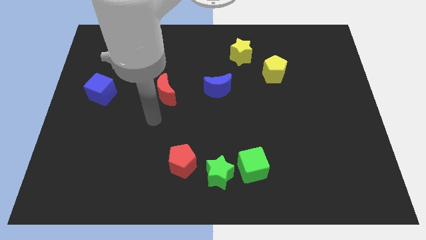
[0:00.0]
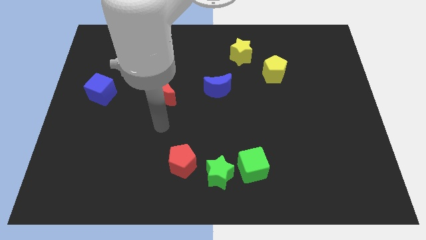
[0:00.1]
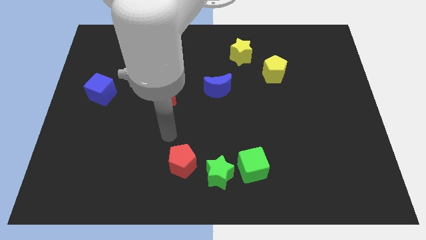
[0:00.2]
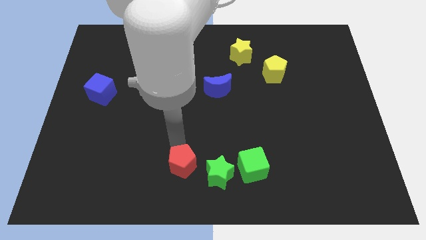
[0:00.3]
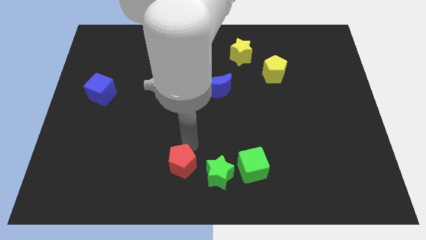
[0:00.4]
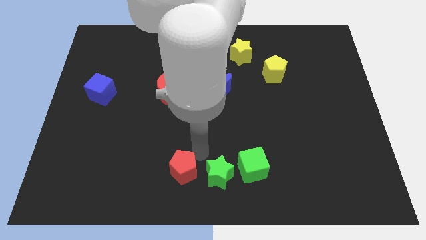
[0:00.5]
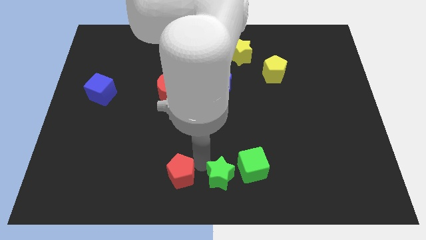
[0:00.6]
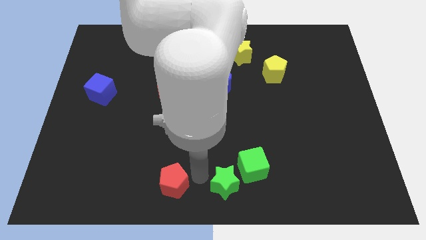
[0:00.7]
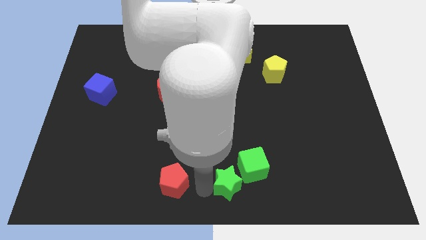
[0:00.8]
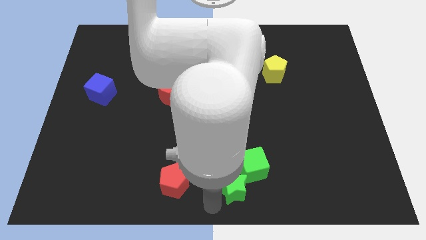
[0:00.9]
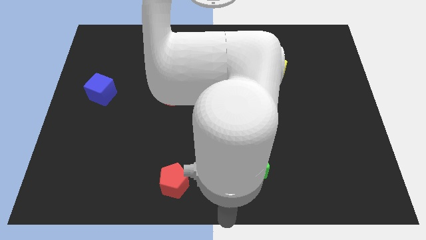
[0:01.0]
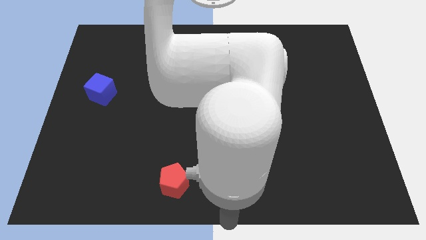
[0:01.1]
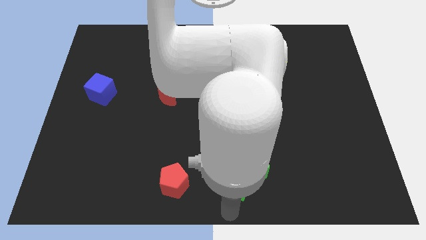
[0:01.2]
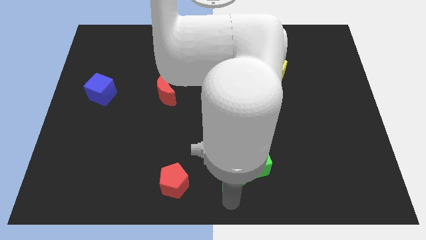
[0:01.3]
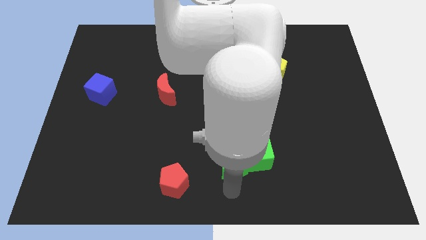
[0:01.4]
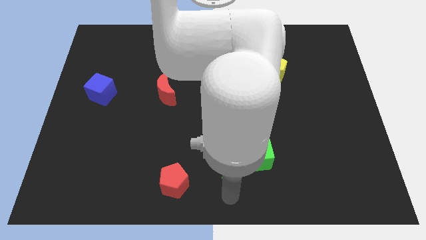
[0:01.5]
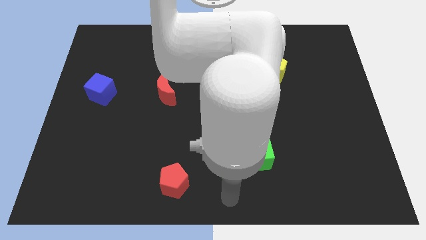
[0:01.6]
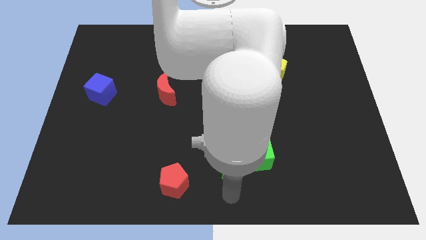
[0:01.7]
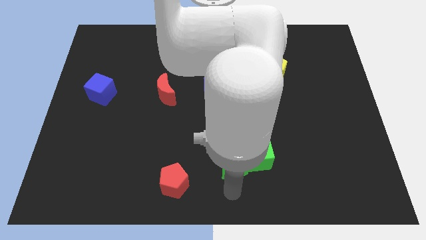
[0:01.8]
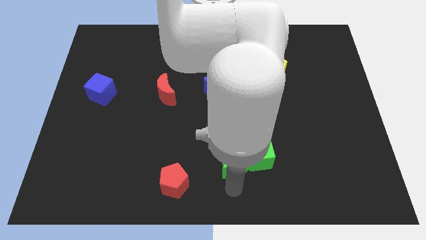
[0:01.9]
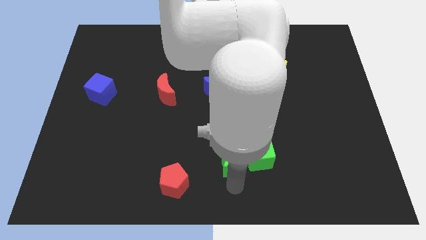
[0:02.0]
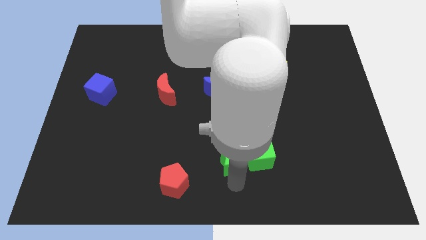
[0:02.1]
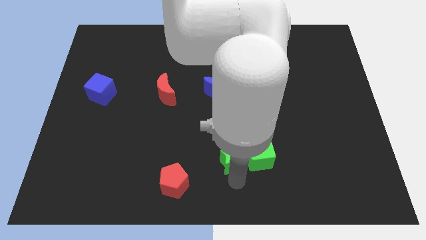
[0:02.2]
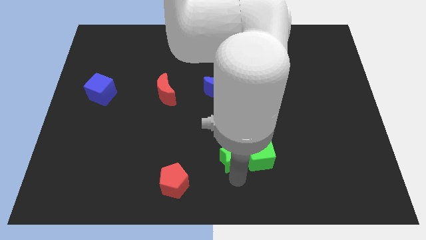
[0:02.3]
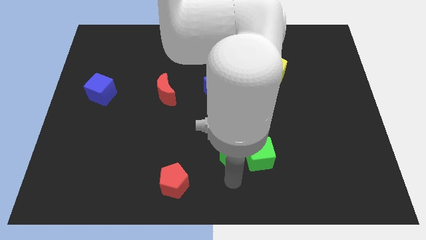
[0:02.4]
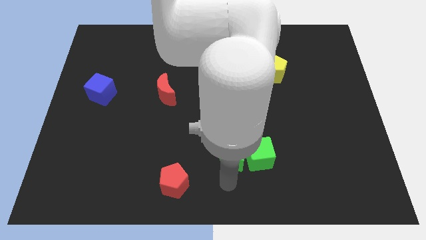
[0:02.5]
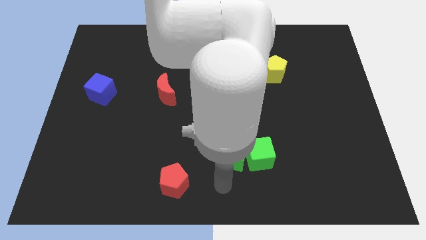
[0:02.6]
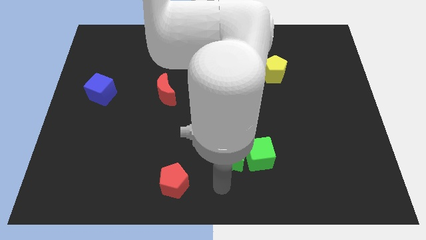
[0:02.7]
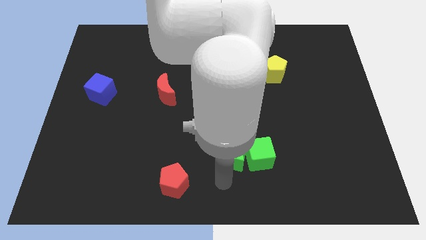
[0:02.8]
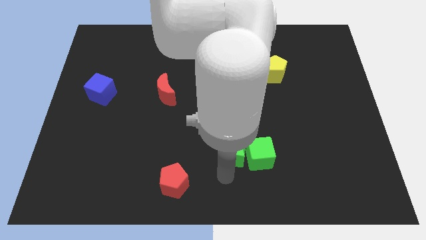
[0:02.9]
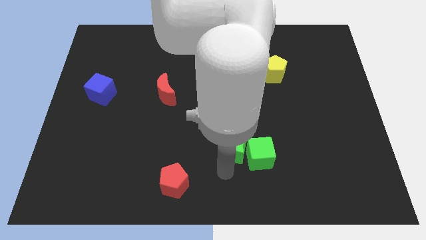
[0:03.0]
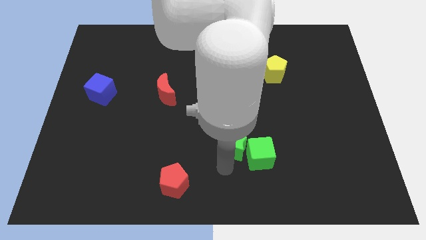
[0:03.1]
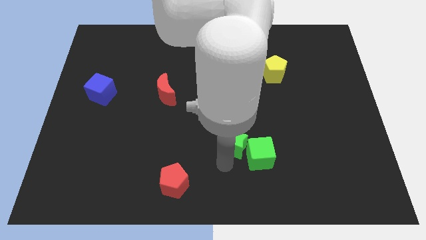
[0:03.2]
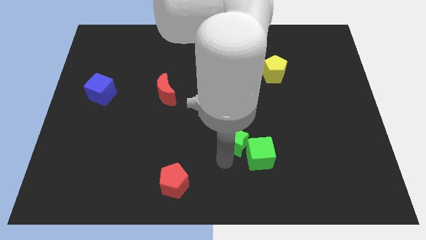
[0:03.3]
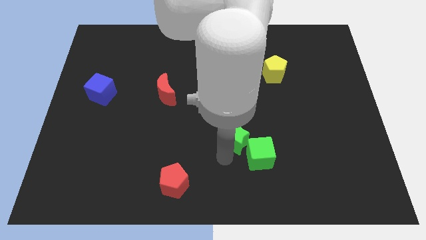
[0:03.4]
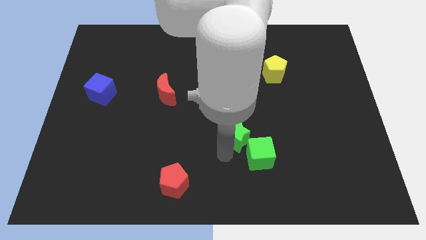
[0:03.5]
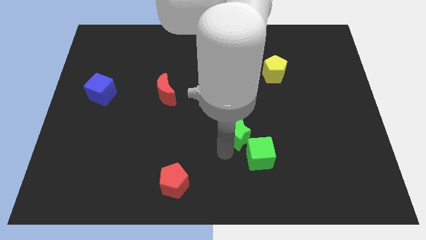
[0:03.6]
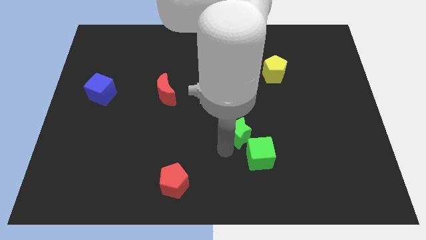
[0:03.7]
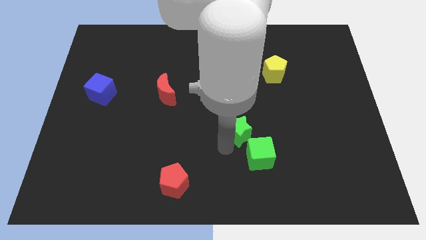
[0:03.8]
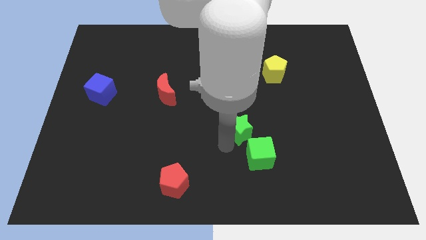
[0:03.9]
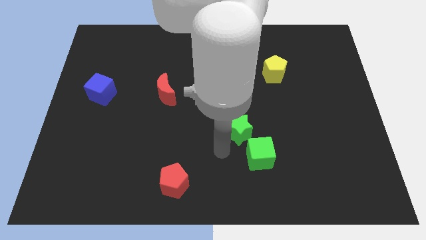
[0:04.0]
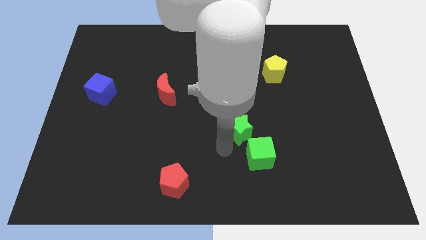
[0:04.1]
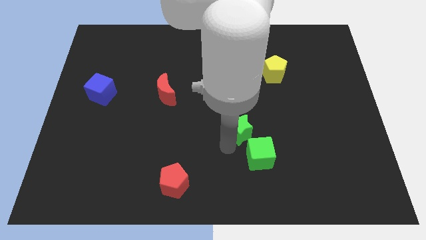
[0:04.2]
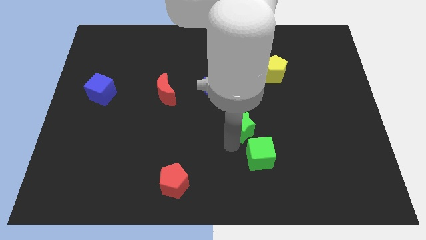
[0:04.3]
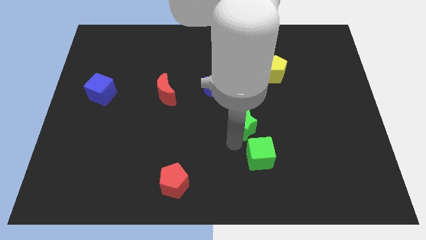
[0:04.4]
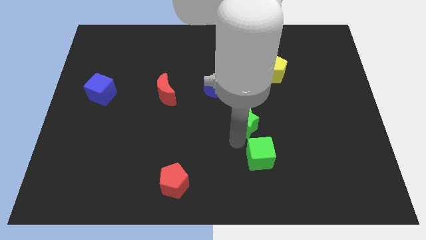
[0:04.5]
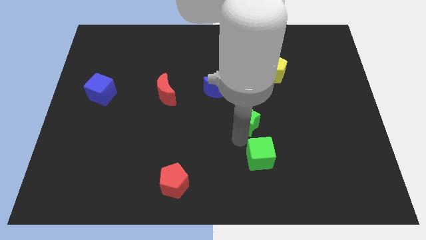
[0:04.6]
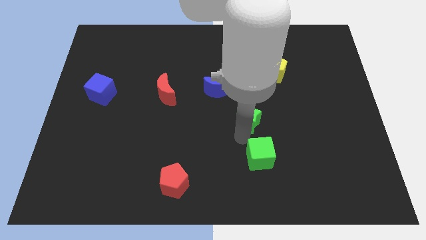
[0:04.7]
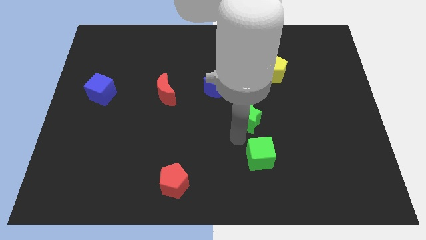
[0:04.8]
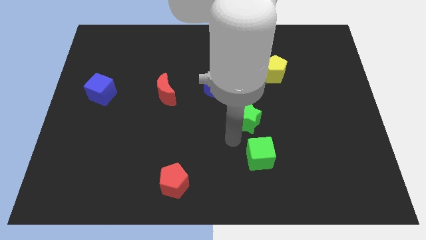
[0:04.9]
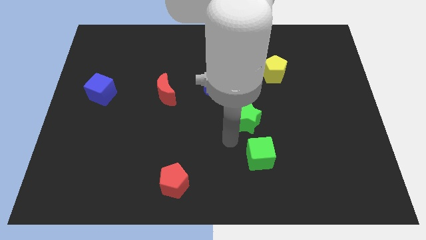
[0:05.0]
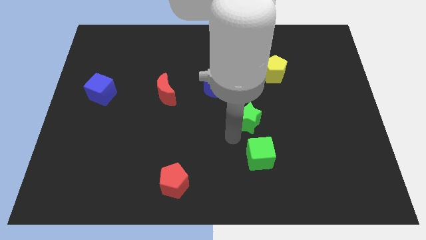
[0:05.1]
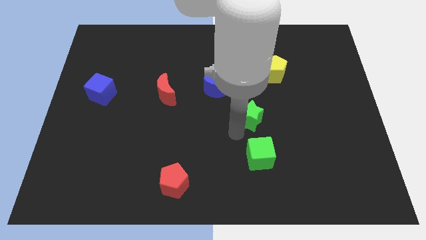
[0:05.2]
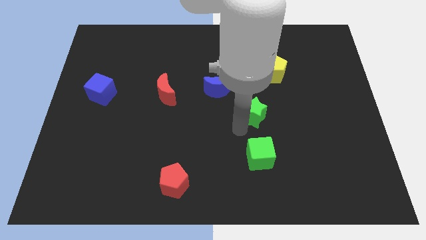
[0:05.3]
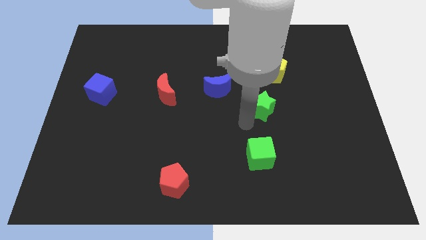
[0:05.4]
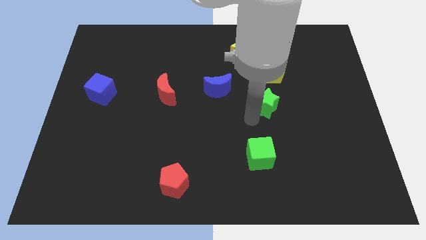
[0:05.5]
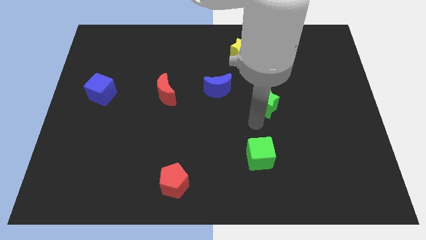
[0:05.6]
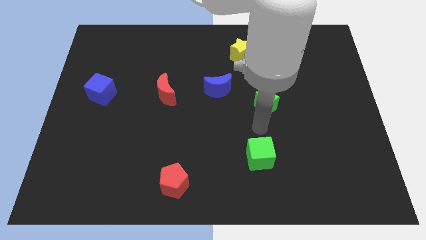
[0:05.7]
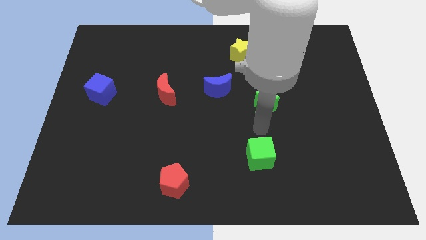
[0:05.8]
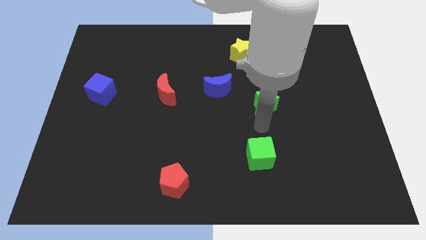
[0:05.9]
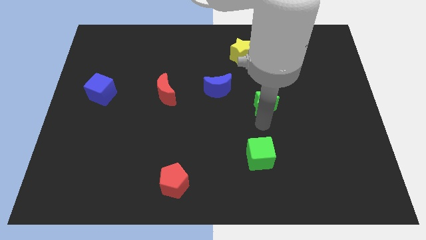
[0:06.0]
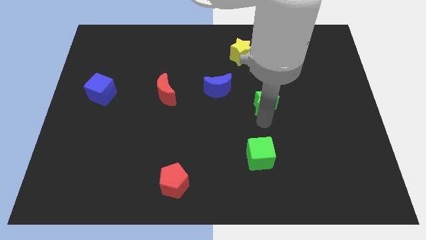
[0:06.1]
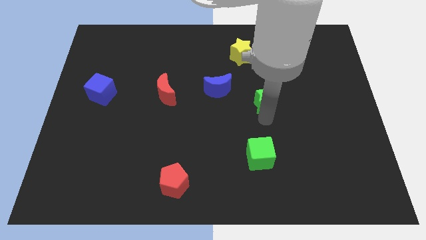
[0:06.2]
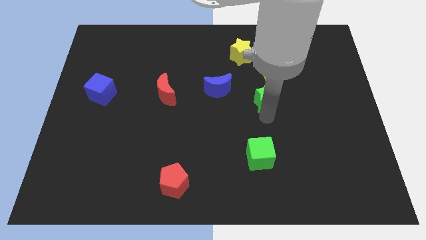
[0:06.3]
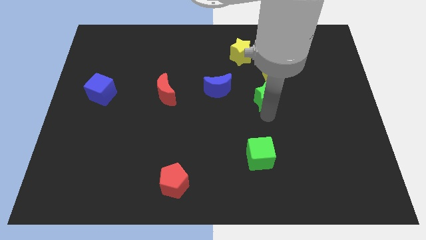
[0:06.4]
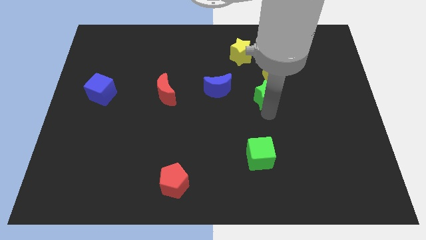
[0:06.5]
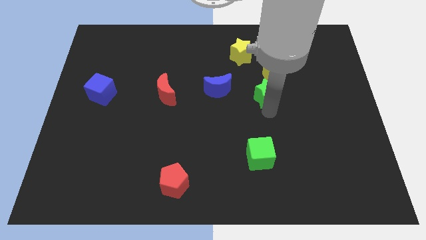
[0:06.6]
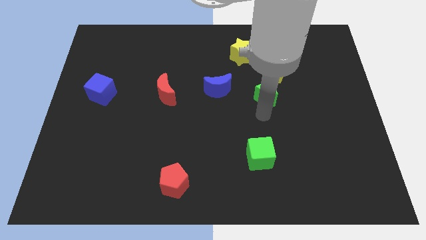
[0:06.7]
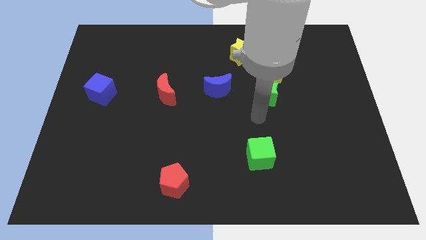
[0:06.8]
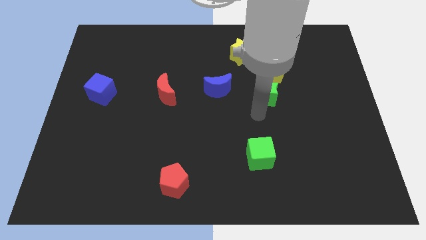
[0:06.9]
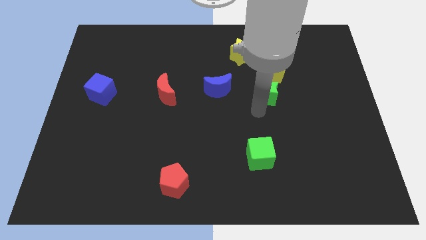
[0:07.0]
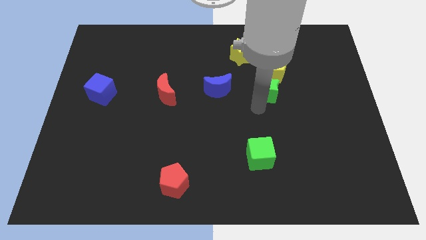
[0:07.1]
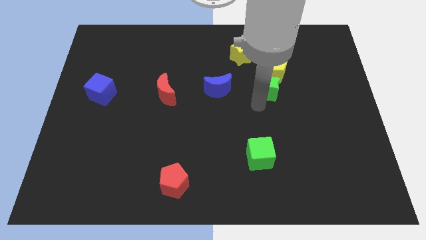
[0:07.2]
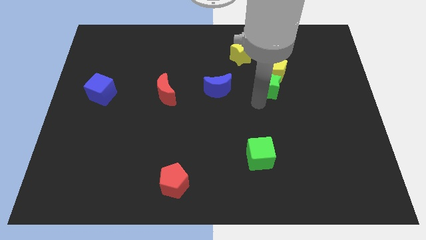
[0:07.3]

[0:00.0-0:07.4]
put the green star towards the yellow pentagon

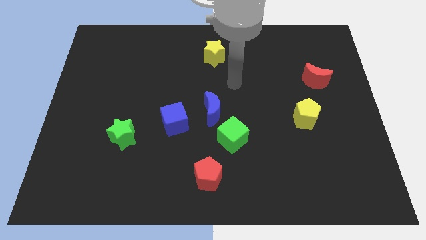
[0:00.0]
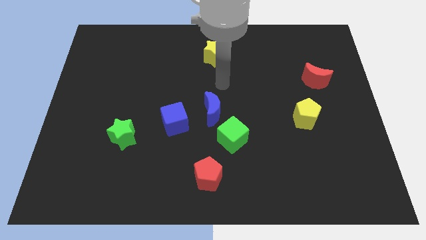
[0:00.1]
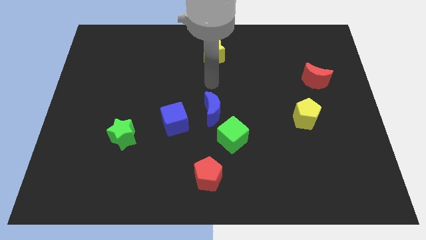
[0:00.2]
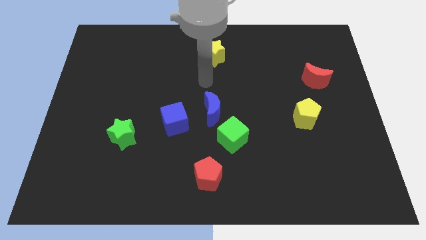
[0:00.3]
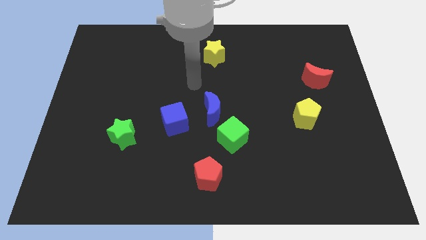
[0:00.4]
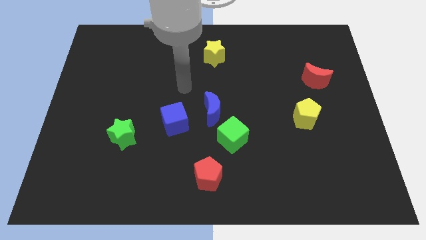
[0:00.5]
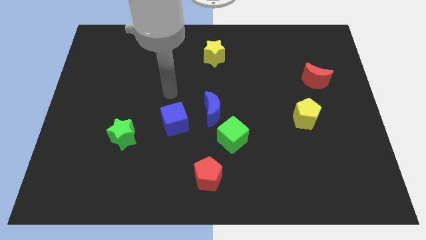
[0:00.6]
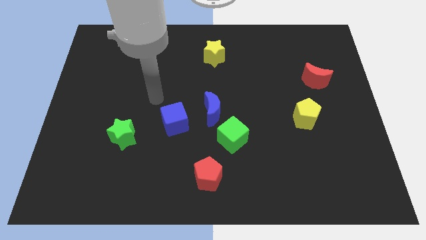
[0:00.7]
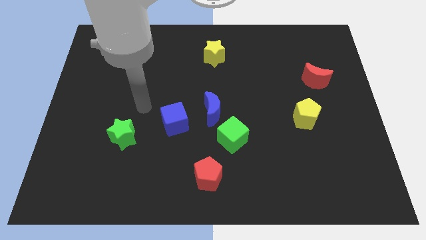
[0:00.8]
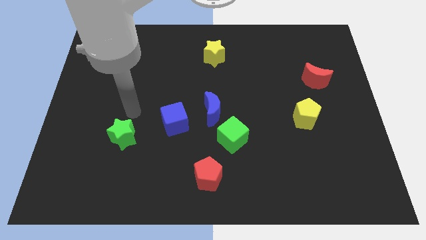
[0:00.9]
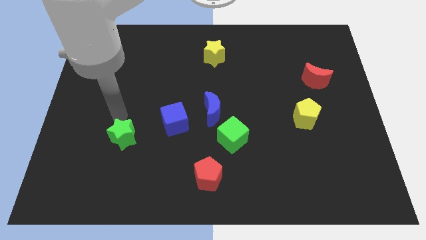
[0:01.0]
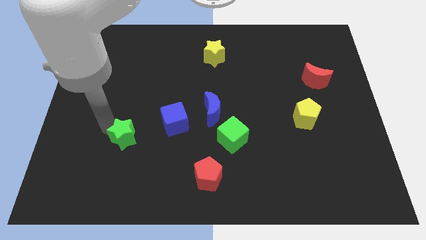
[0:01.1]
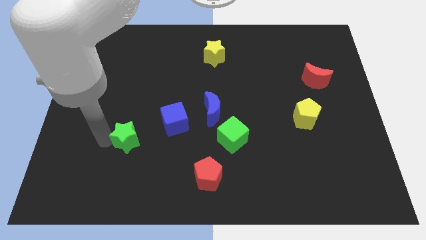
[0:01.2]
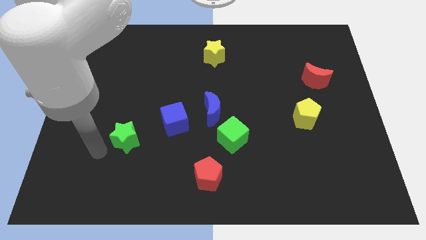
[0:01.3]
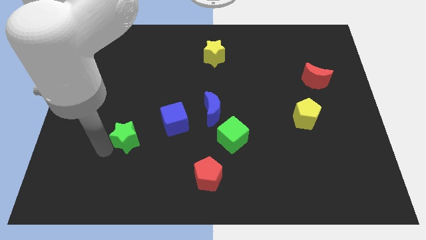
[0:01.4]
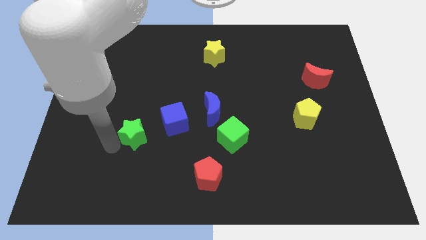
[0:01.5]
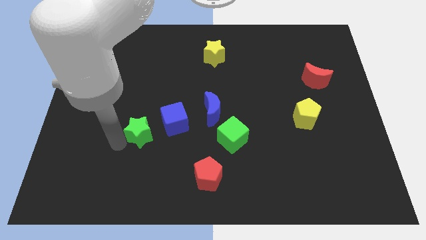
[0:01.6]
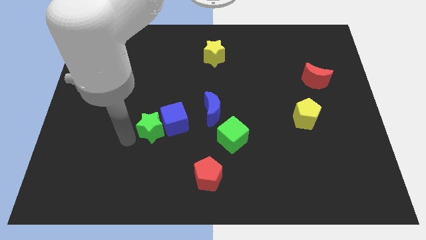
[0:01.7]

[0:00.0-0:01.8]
push the green star towards the blue cube
